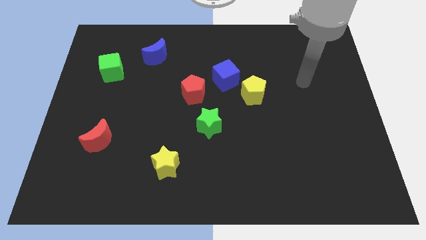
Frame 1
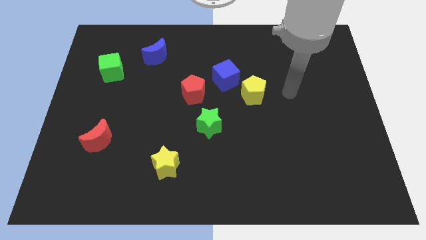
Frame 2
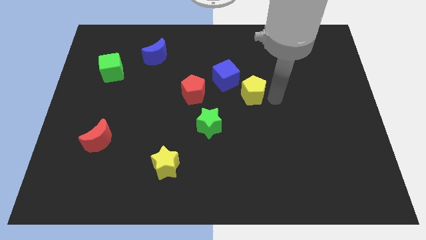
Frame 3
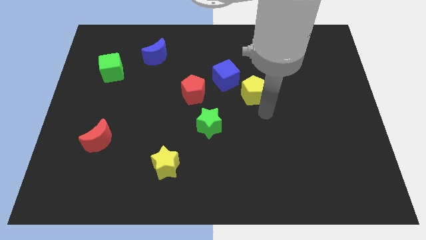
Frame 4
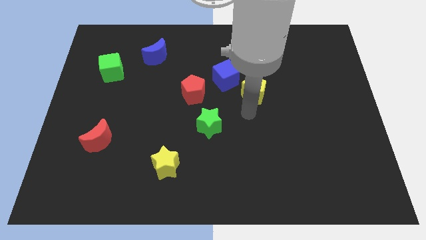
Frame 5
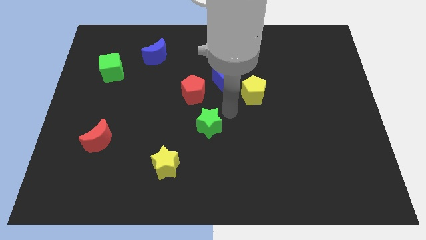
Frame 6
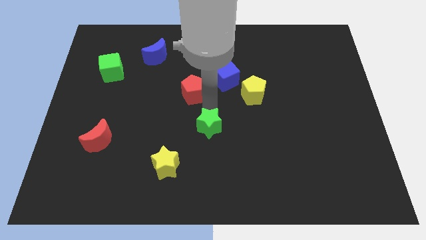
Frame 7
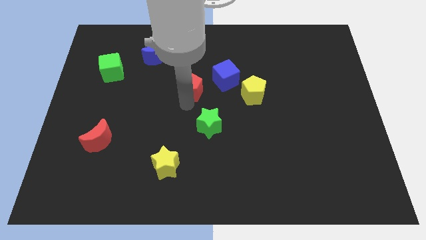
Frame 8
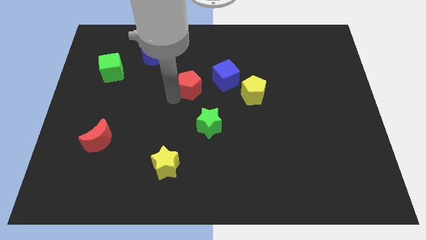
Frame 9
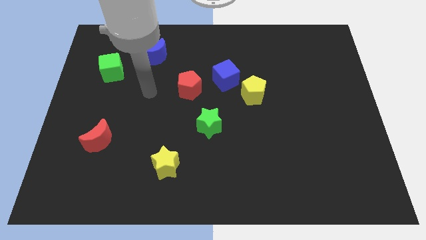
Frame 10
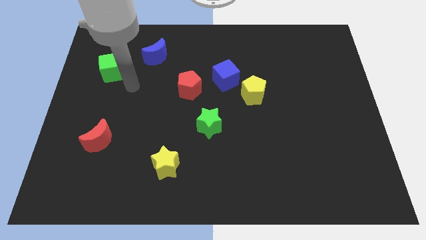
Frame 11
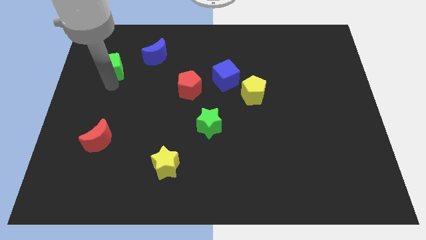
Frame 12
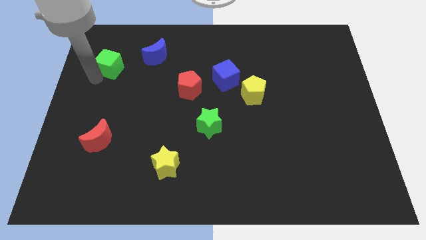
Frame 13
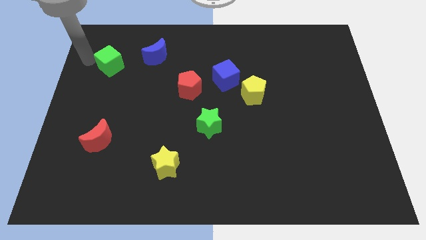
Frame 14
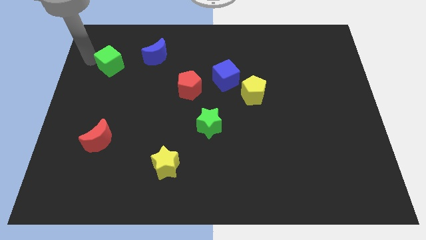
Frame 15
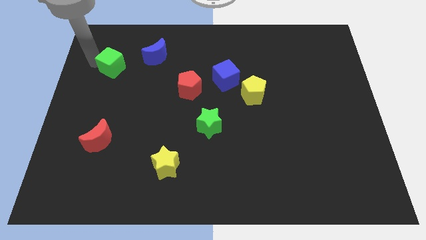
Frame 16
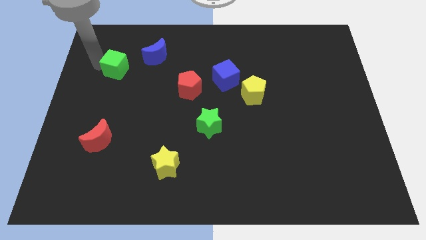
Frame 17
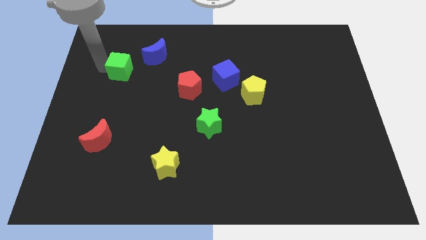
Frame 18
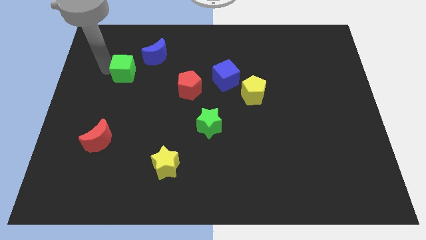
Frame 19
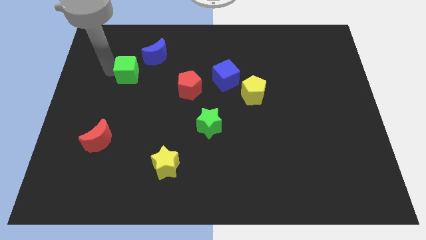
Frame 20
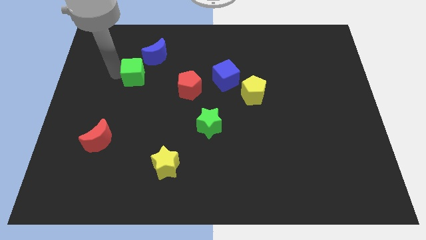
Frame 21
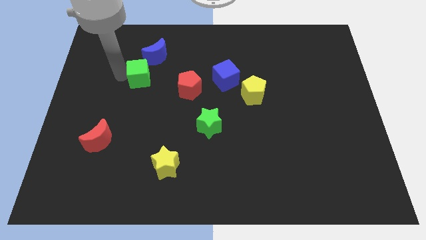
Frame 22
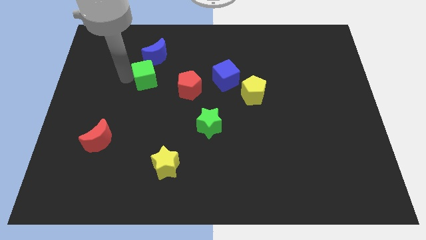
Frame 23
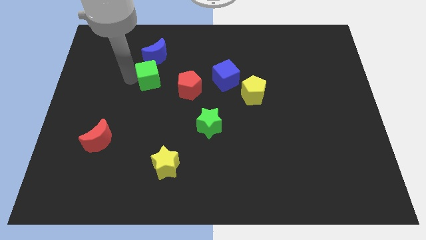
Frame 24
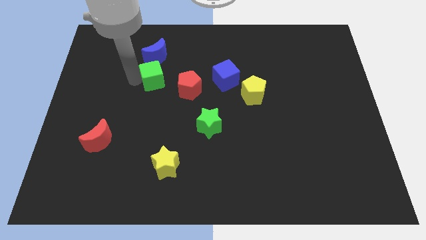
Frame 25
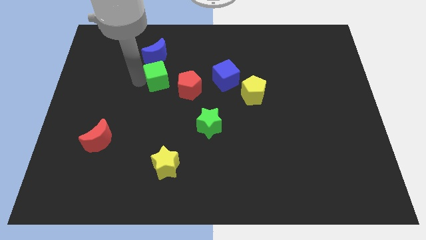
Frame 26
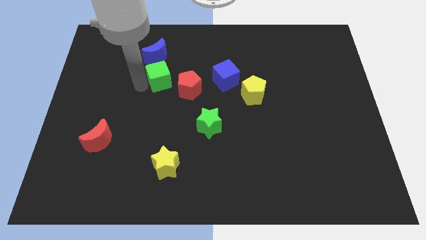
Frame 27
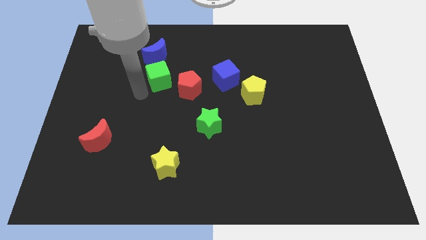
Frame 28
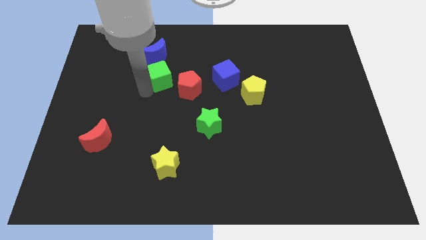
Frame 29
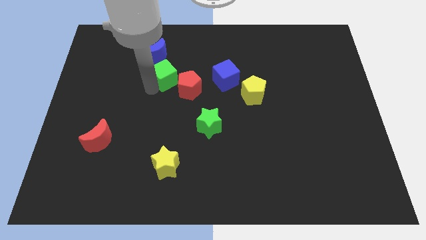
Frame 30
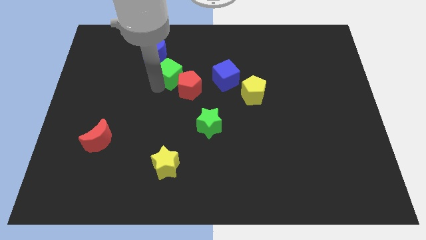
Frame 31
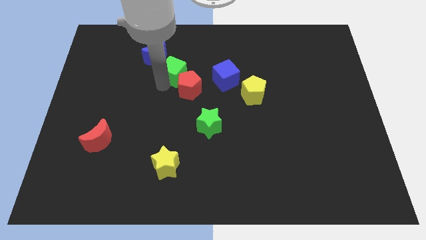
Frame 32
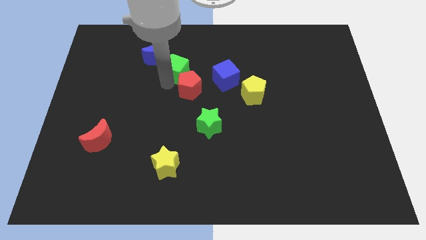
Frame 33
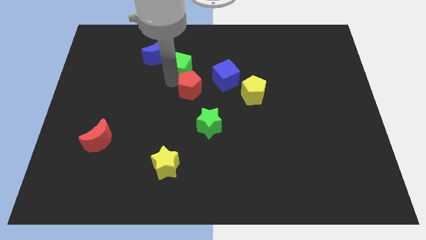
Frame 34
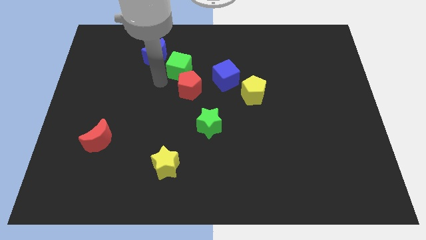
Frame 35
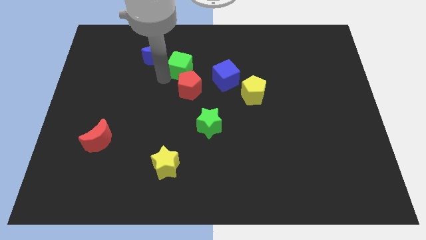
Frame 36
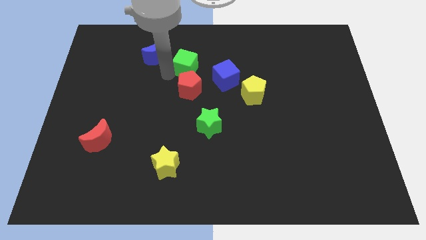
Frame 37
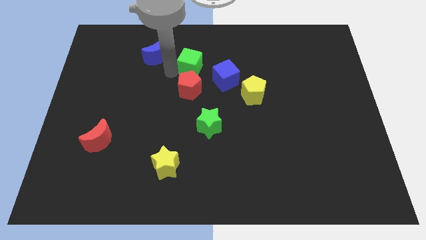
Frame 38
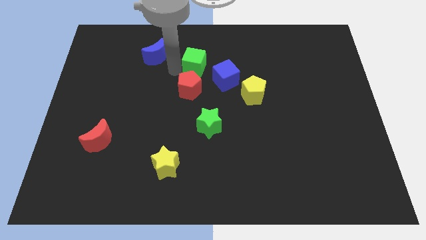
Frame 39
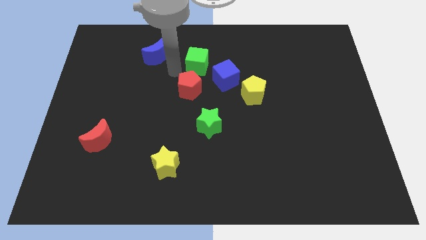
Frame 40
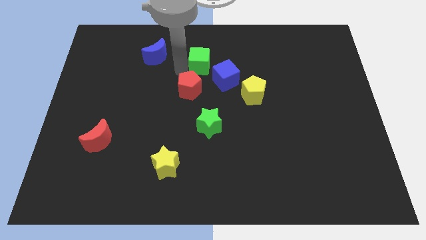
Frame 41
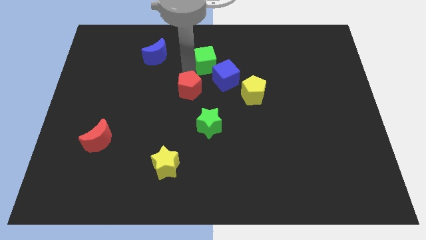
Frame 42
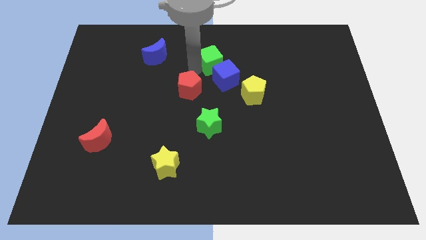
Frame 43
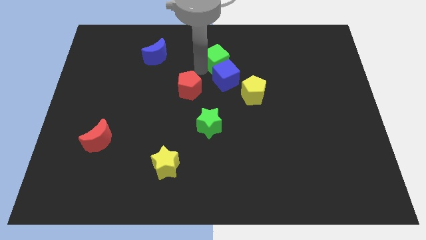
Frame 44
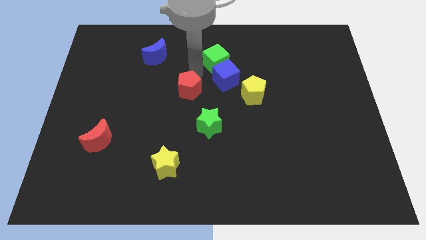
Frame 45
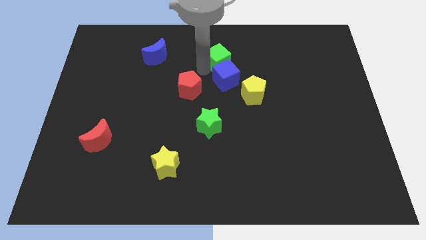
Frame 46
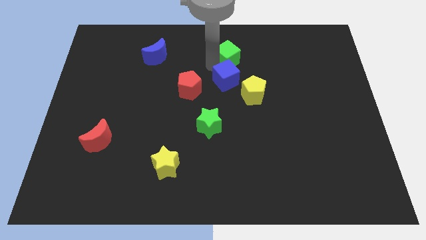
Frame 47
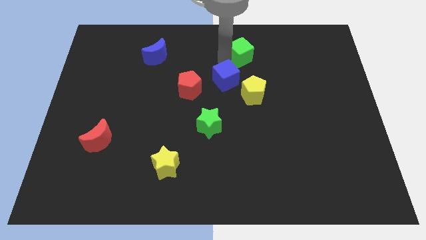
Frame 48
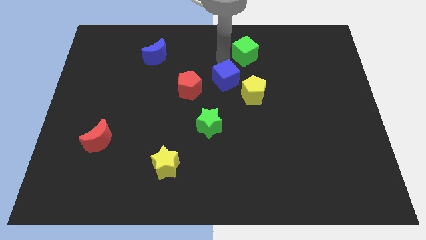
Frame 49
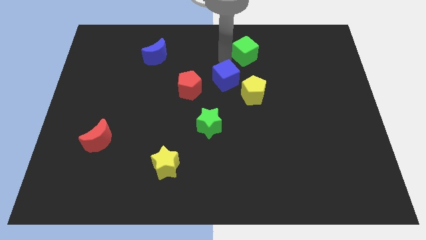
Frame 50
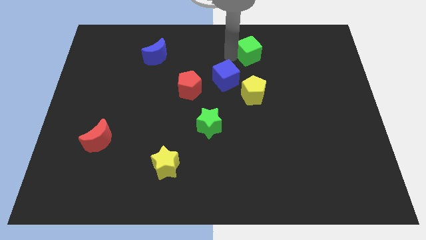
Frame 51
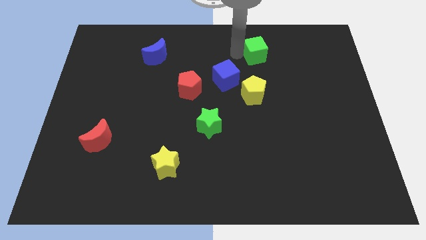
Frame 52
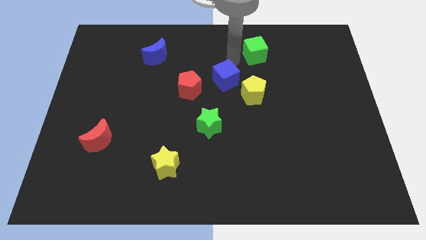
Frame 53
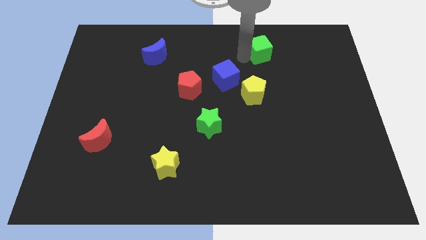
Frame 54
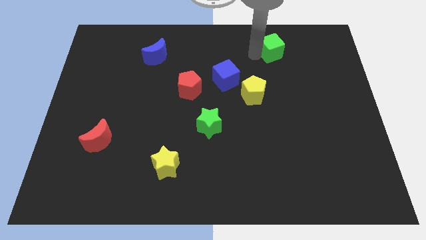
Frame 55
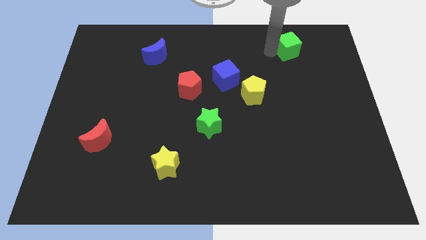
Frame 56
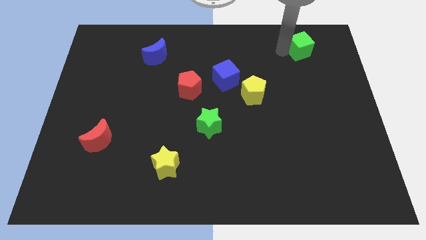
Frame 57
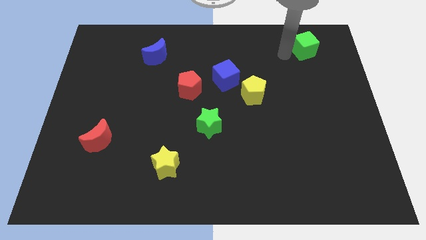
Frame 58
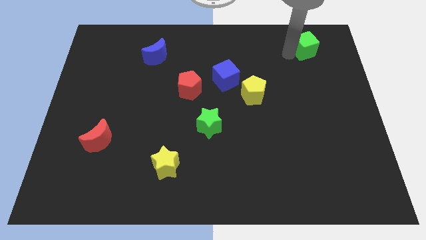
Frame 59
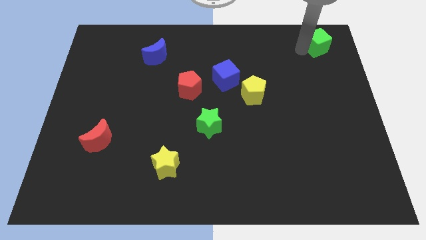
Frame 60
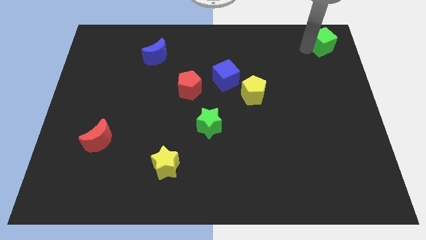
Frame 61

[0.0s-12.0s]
put the green cube to the top right
